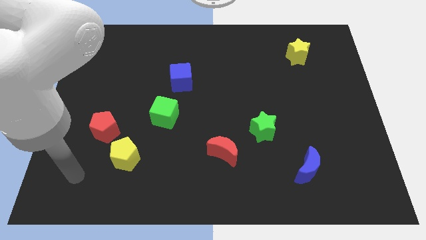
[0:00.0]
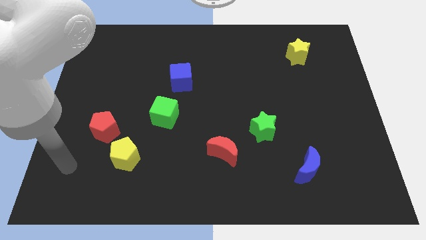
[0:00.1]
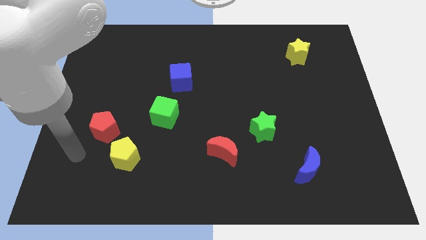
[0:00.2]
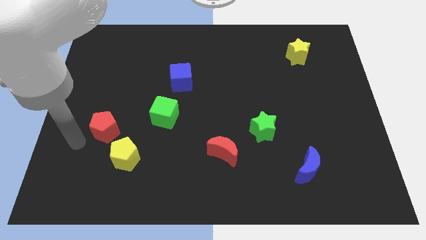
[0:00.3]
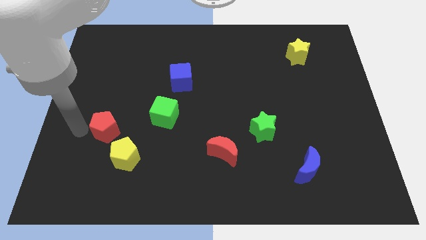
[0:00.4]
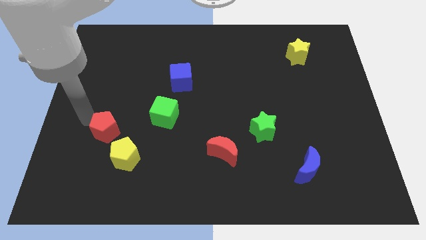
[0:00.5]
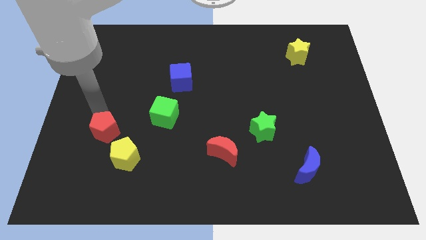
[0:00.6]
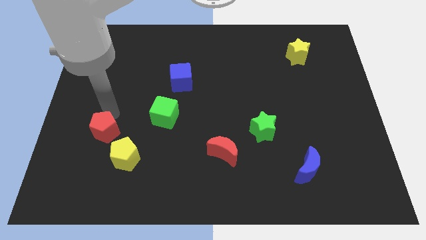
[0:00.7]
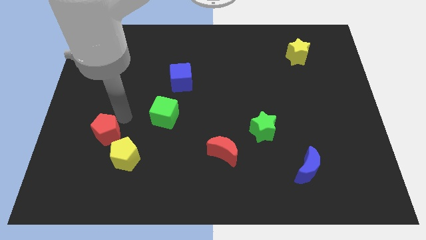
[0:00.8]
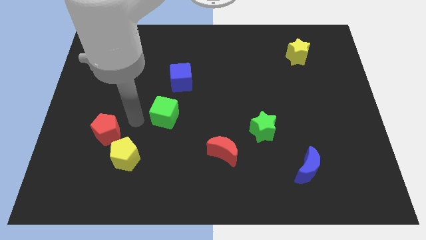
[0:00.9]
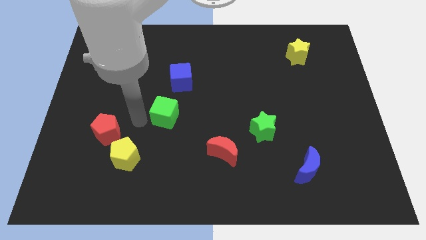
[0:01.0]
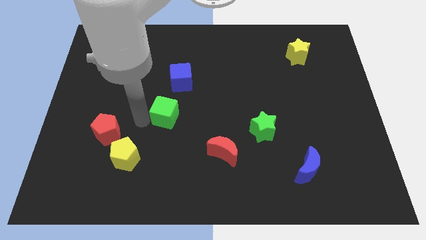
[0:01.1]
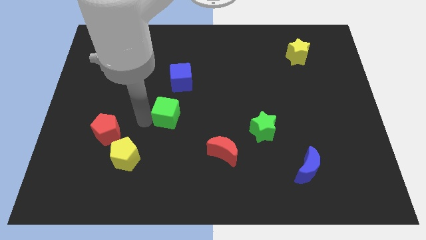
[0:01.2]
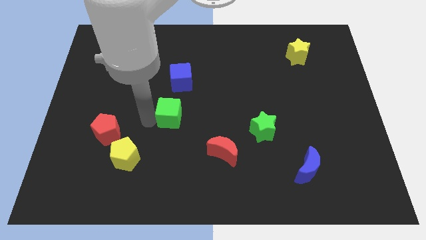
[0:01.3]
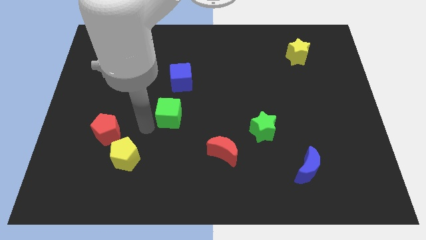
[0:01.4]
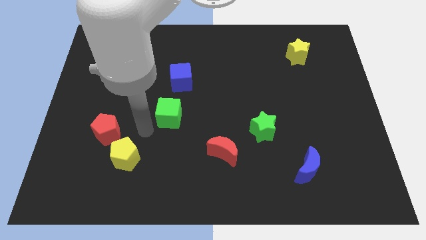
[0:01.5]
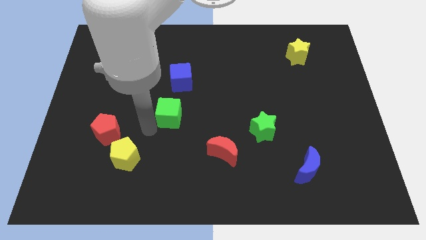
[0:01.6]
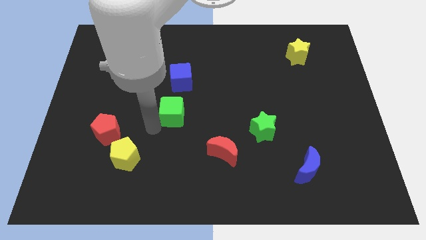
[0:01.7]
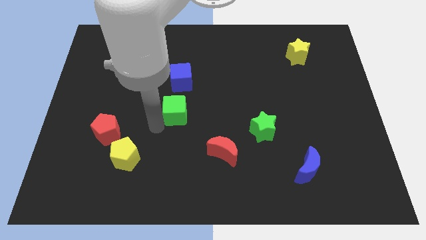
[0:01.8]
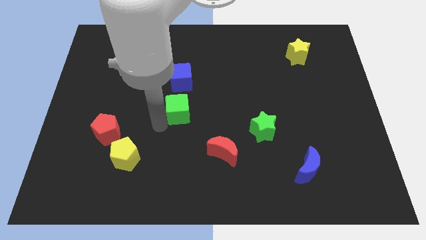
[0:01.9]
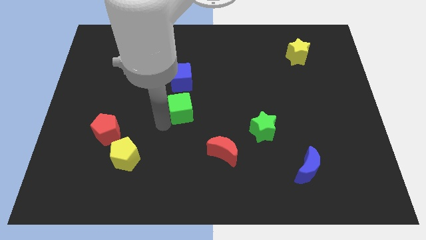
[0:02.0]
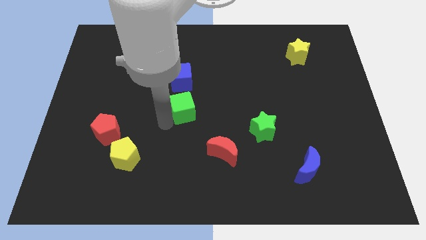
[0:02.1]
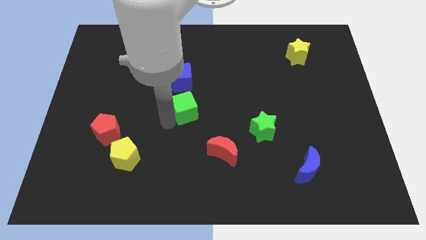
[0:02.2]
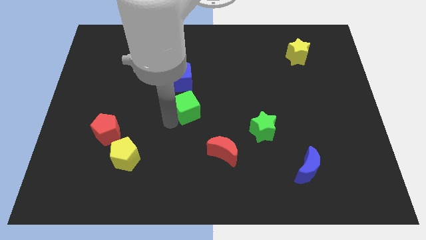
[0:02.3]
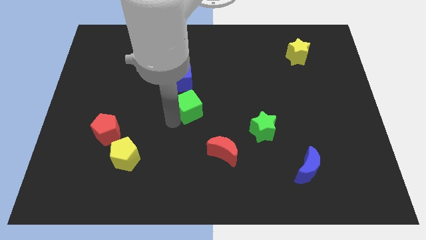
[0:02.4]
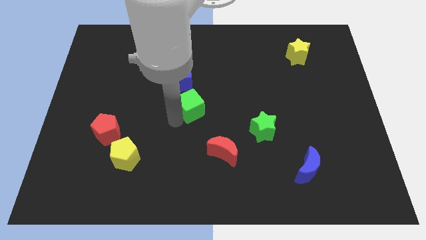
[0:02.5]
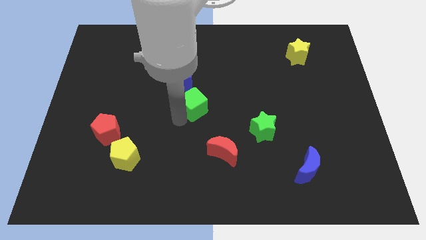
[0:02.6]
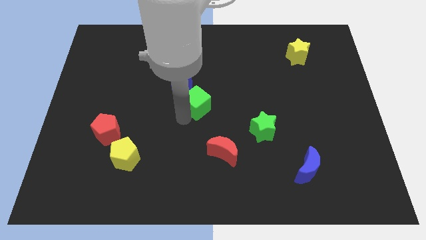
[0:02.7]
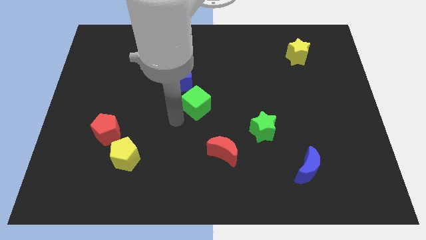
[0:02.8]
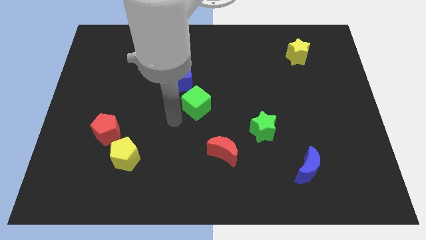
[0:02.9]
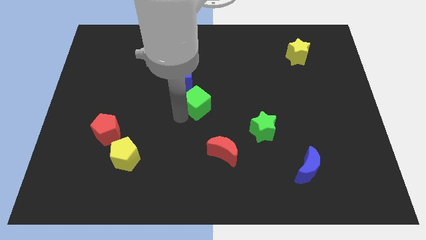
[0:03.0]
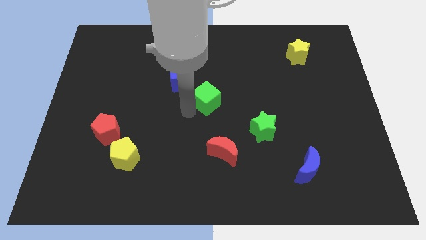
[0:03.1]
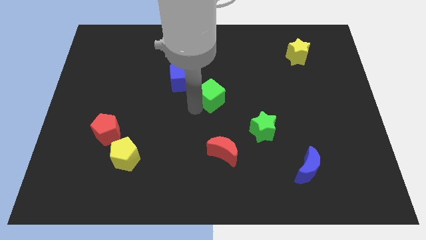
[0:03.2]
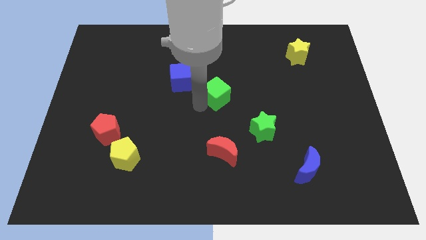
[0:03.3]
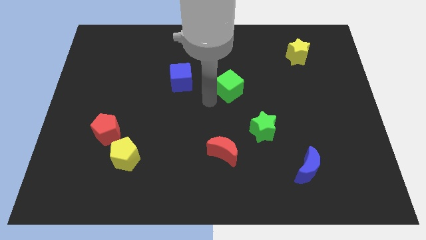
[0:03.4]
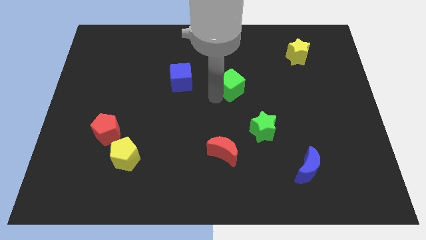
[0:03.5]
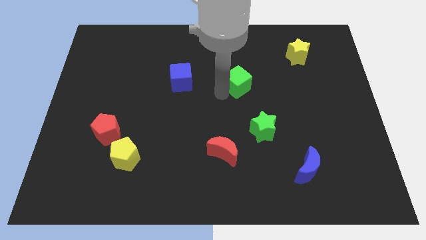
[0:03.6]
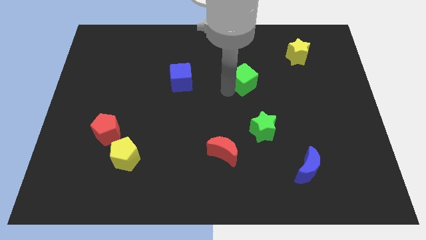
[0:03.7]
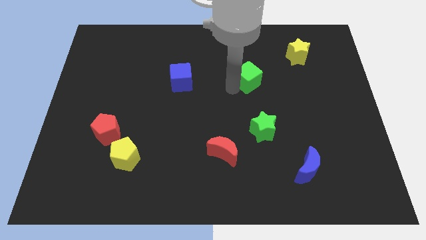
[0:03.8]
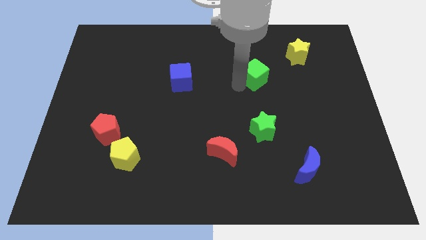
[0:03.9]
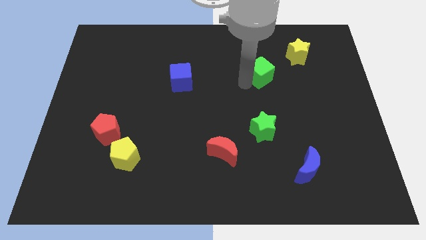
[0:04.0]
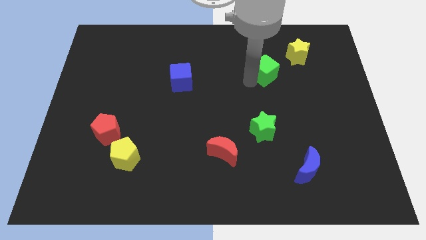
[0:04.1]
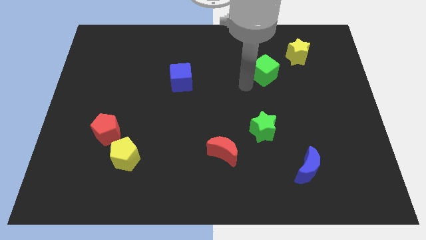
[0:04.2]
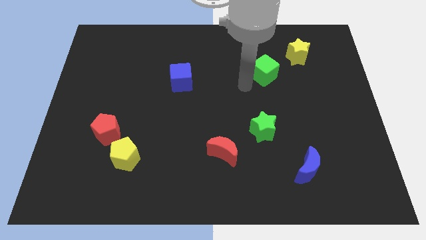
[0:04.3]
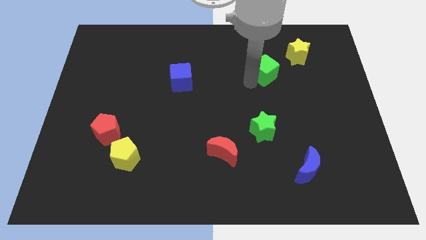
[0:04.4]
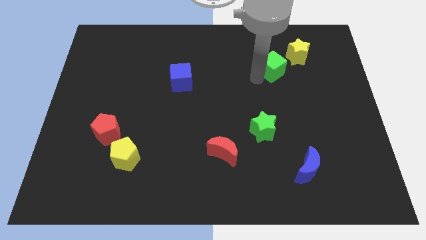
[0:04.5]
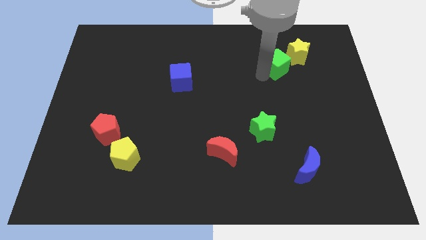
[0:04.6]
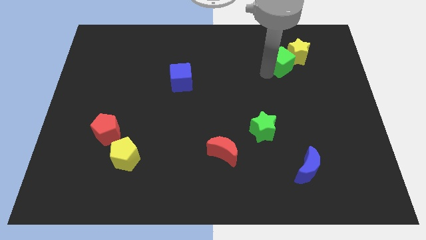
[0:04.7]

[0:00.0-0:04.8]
slide the green cube next to the yellow star

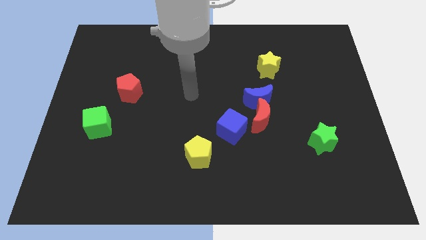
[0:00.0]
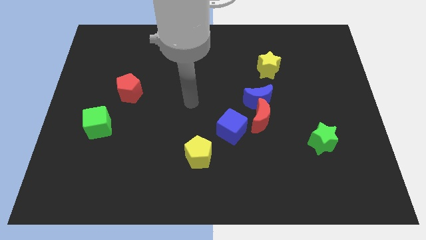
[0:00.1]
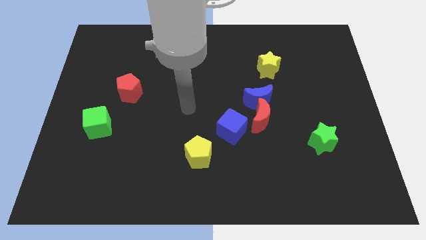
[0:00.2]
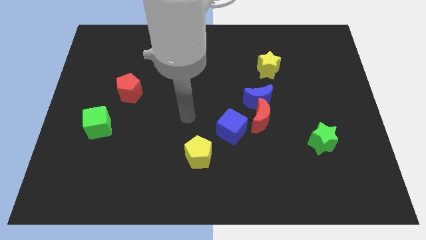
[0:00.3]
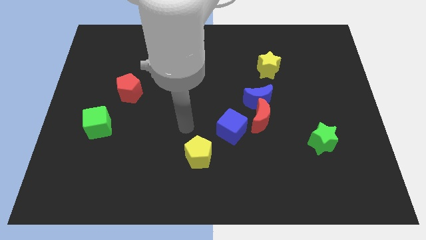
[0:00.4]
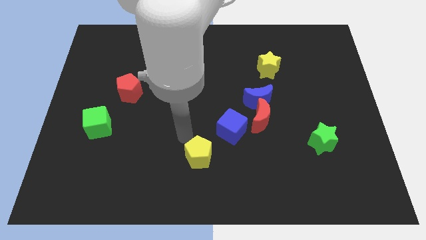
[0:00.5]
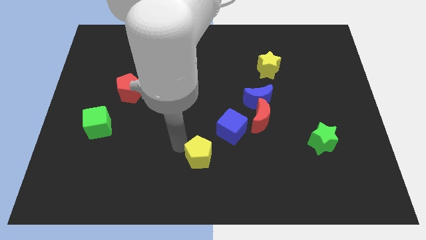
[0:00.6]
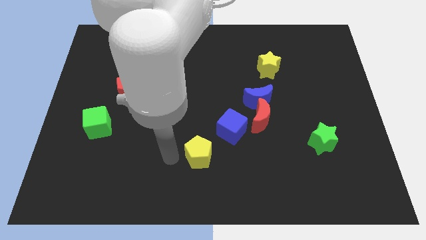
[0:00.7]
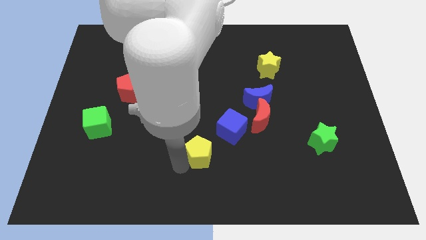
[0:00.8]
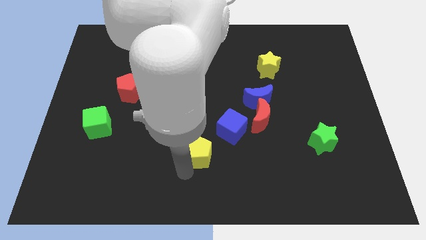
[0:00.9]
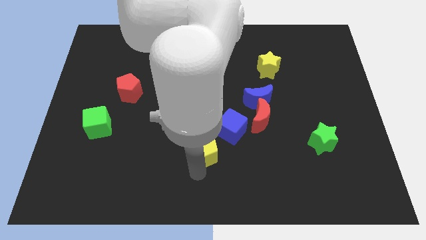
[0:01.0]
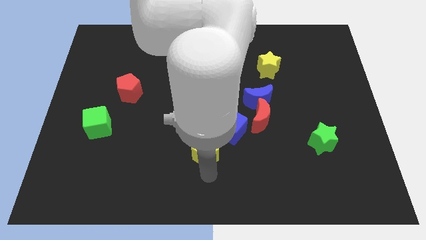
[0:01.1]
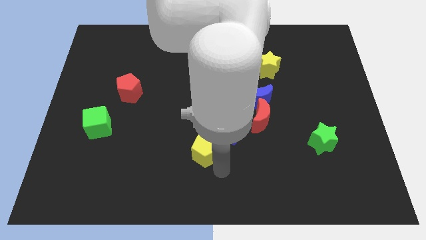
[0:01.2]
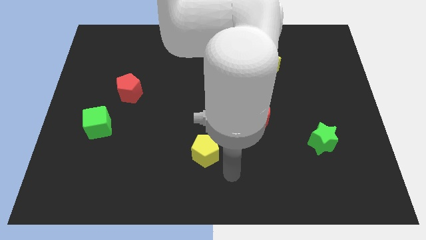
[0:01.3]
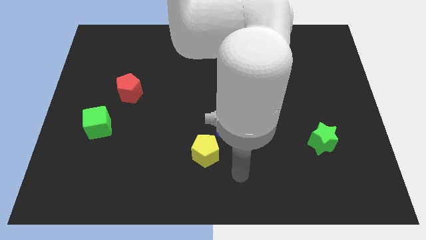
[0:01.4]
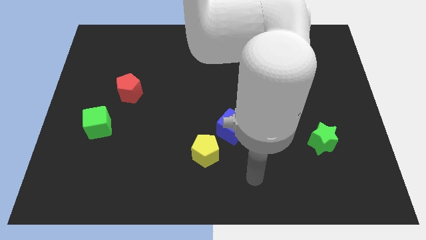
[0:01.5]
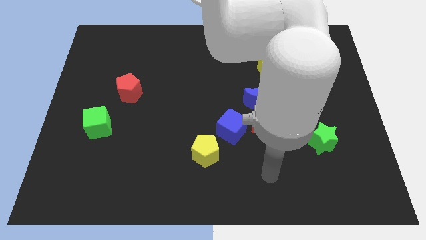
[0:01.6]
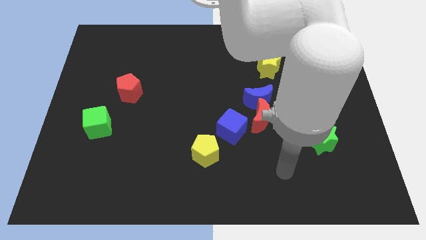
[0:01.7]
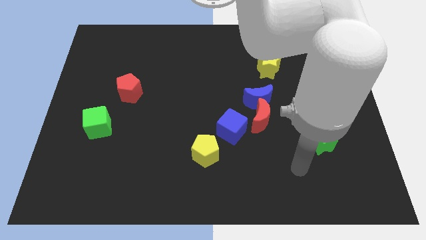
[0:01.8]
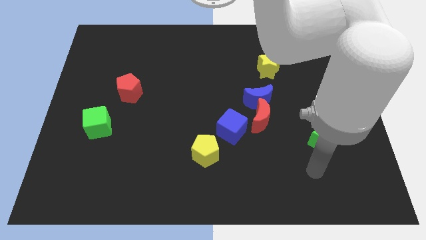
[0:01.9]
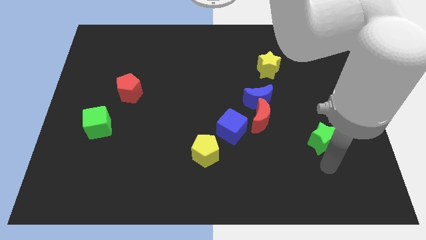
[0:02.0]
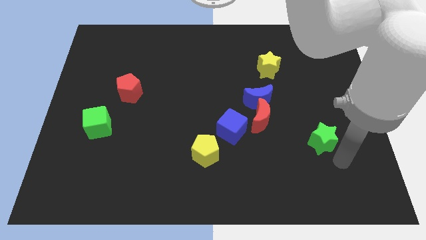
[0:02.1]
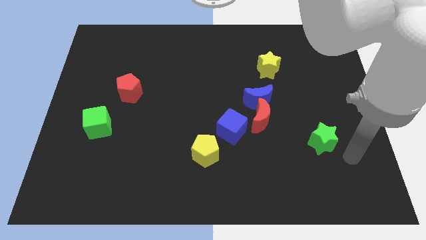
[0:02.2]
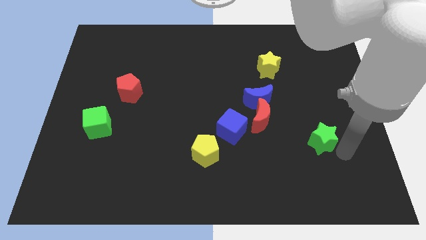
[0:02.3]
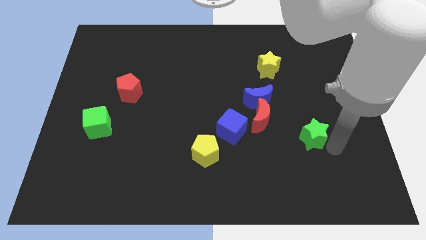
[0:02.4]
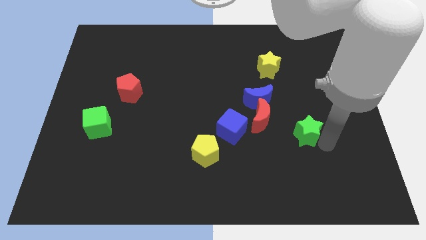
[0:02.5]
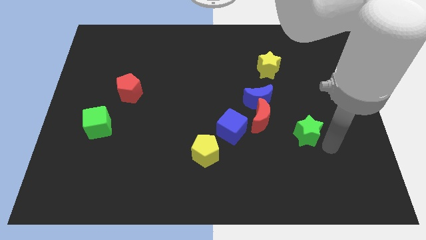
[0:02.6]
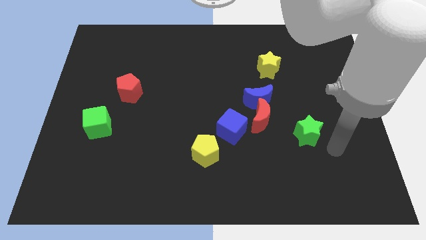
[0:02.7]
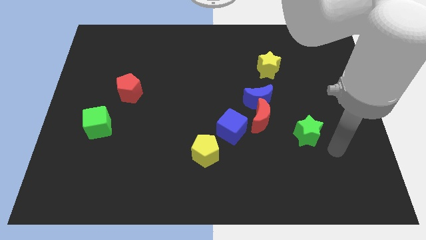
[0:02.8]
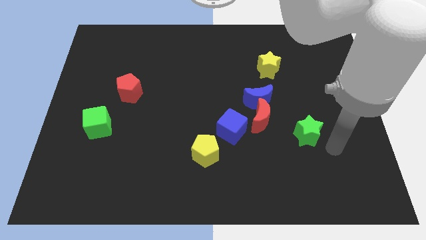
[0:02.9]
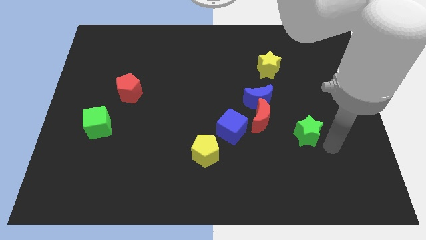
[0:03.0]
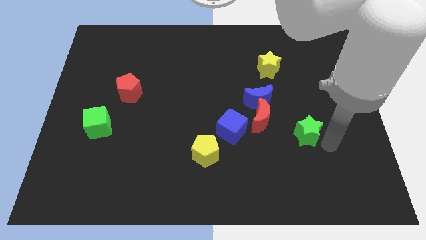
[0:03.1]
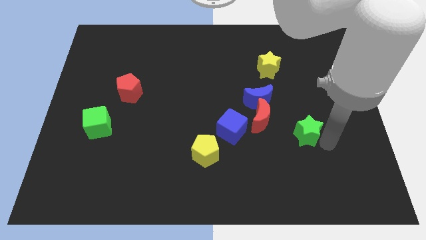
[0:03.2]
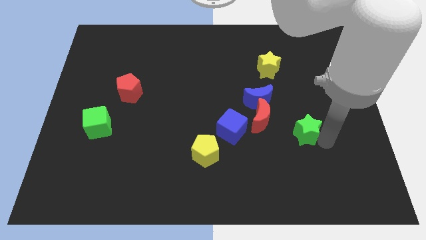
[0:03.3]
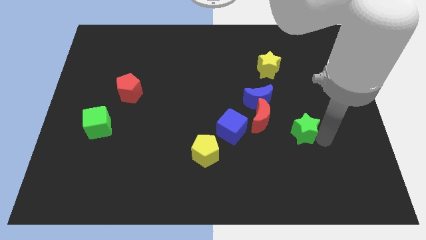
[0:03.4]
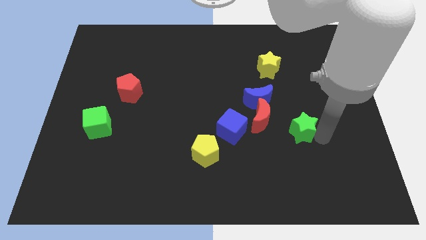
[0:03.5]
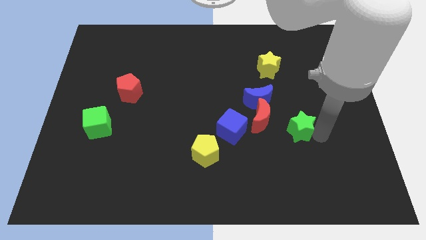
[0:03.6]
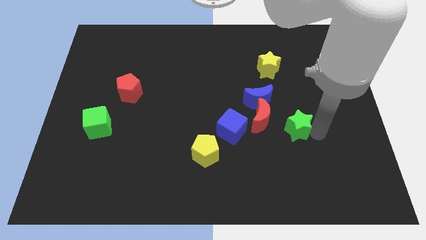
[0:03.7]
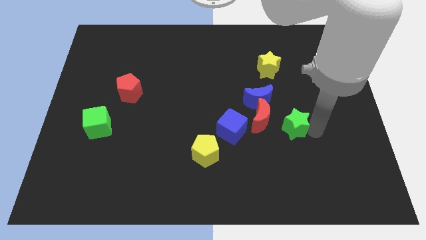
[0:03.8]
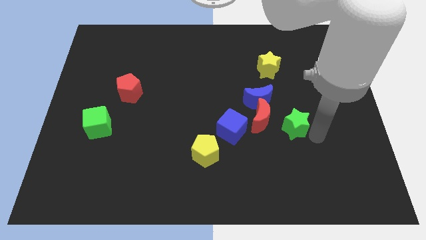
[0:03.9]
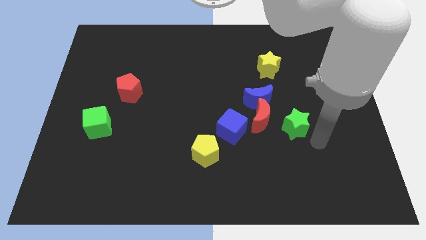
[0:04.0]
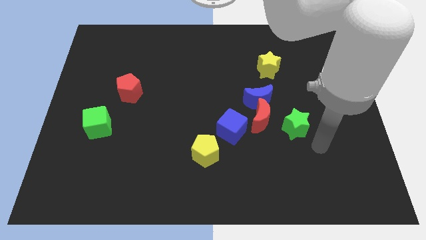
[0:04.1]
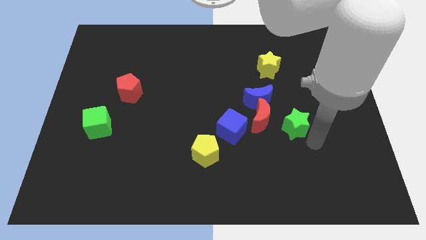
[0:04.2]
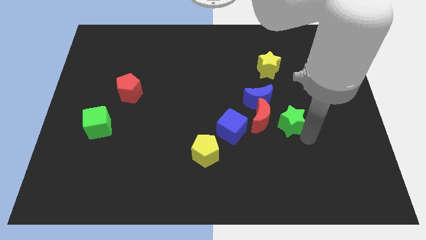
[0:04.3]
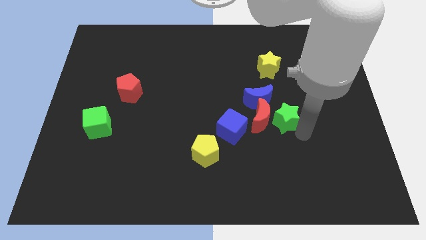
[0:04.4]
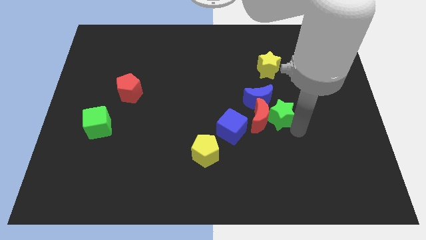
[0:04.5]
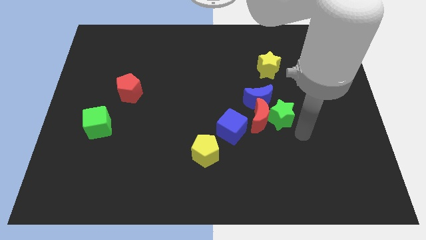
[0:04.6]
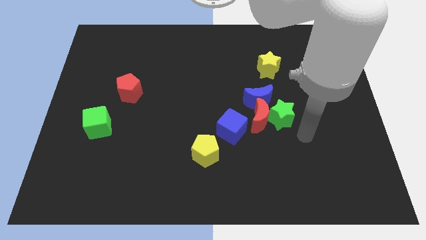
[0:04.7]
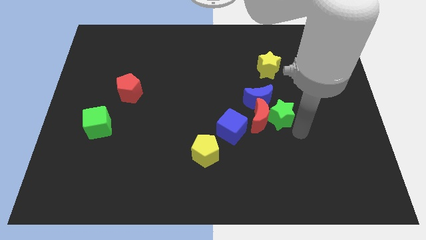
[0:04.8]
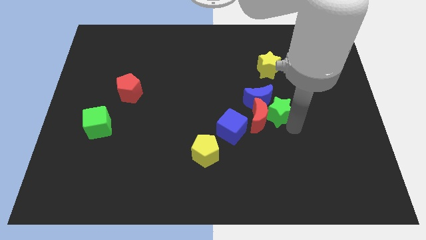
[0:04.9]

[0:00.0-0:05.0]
move the green star close to the blue moon
